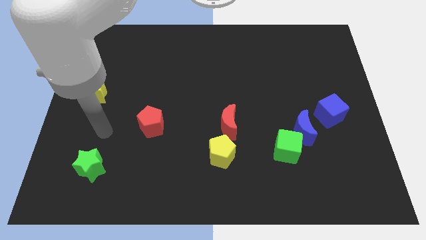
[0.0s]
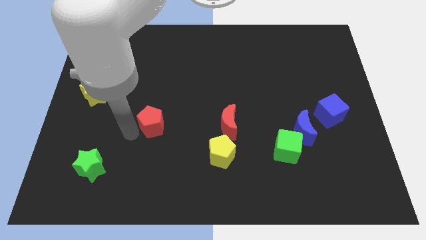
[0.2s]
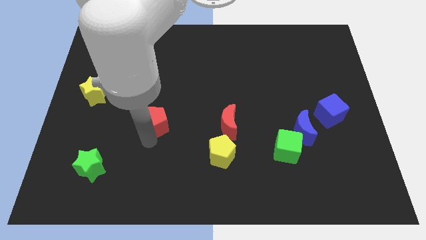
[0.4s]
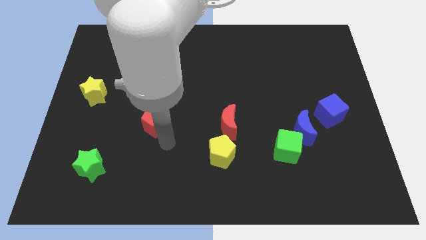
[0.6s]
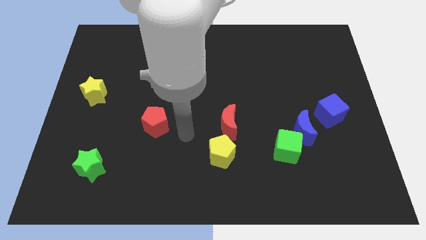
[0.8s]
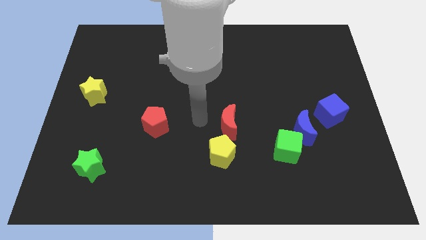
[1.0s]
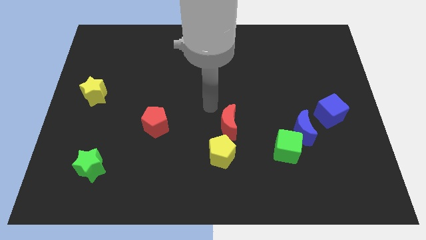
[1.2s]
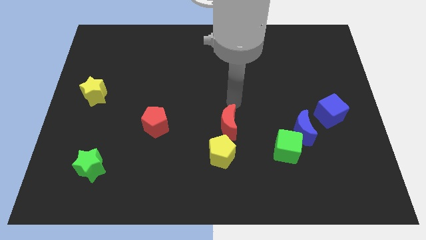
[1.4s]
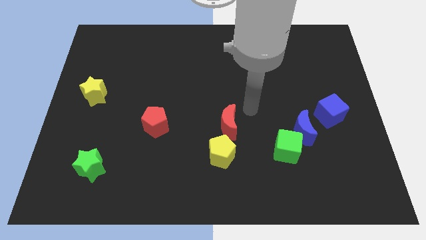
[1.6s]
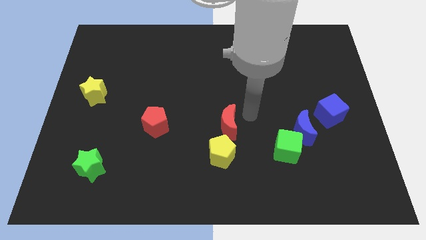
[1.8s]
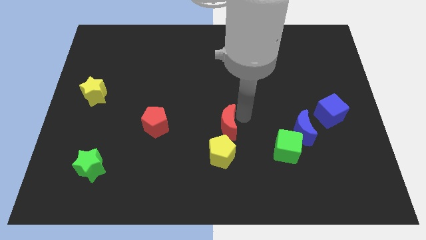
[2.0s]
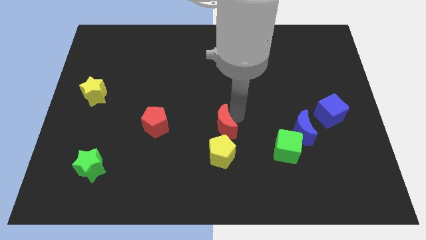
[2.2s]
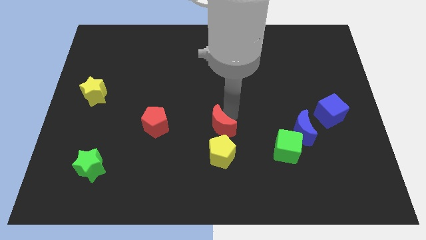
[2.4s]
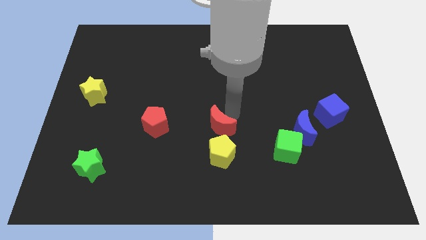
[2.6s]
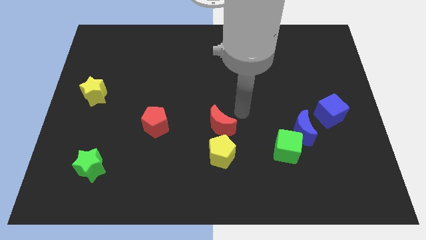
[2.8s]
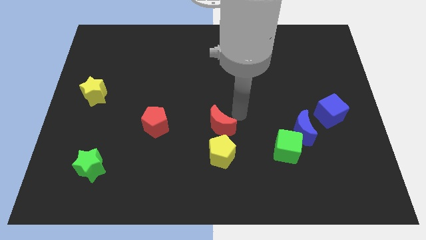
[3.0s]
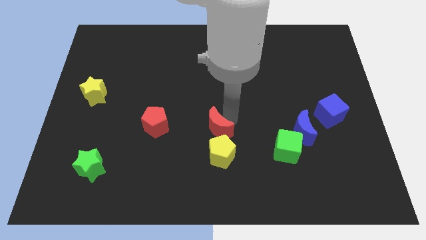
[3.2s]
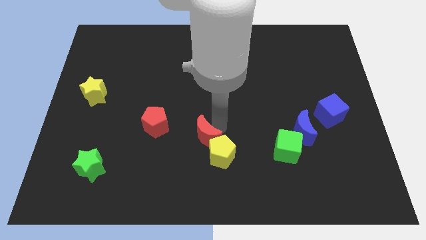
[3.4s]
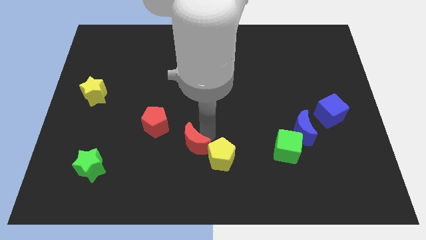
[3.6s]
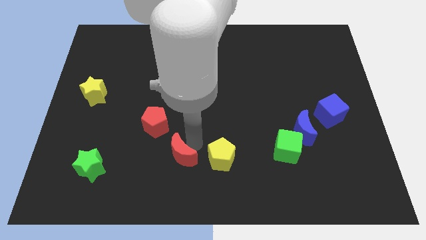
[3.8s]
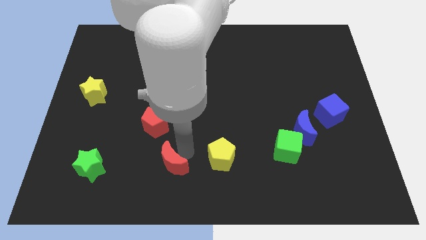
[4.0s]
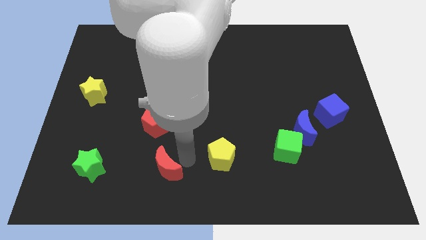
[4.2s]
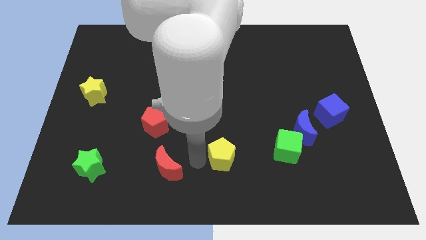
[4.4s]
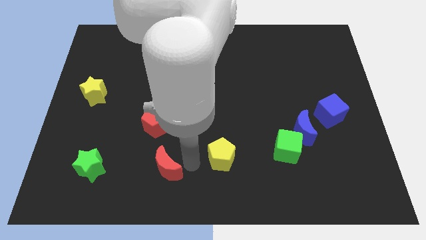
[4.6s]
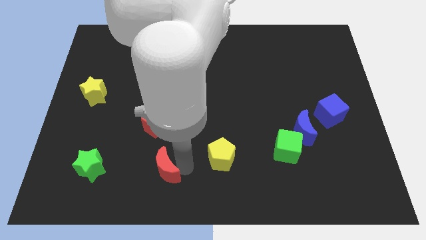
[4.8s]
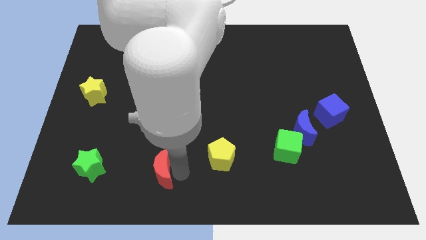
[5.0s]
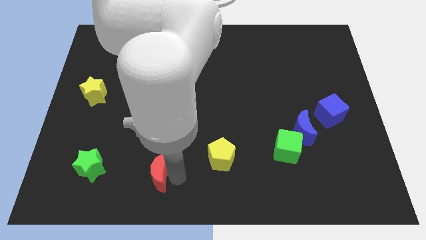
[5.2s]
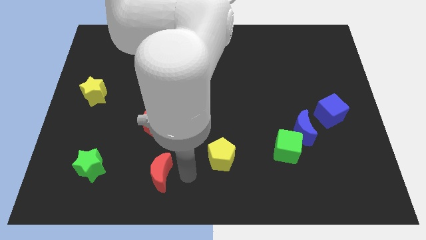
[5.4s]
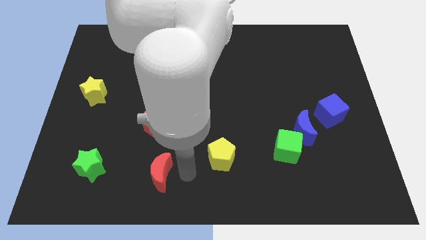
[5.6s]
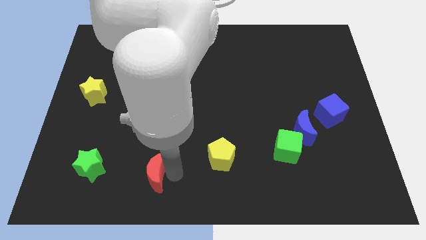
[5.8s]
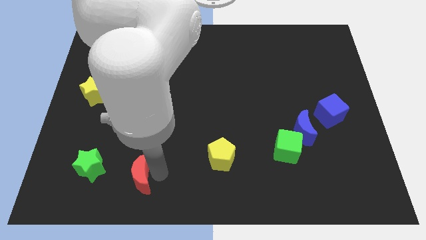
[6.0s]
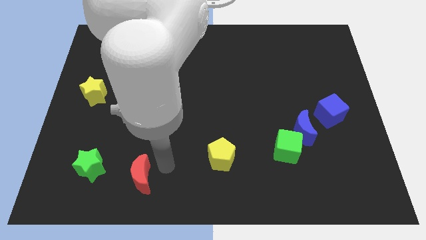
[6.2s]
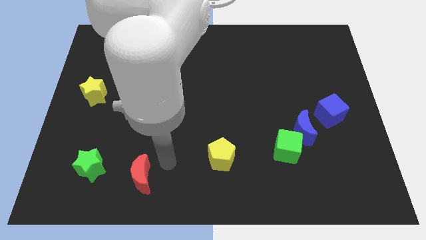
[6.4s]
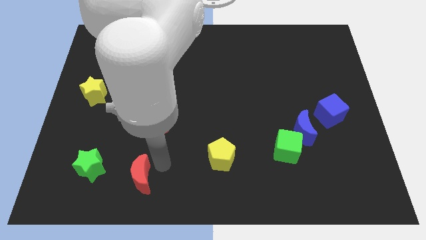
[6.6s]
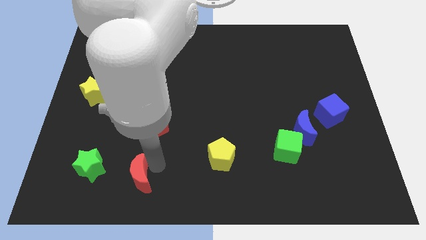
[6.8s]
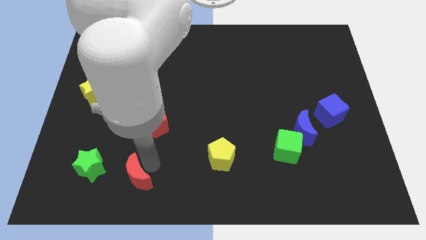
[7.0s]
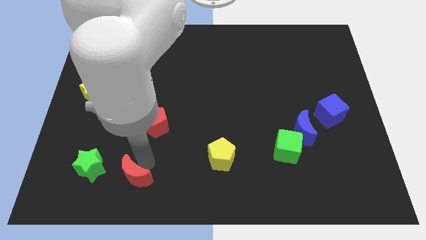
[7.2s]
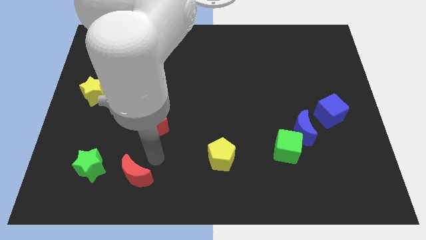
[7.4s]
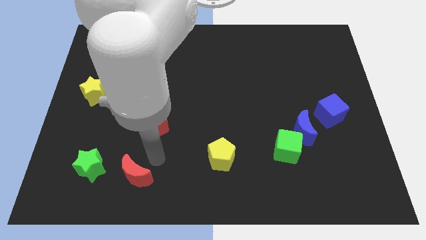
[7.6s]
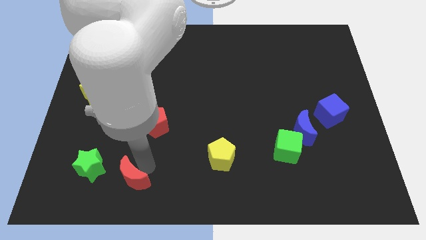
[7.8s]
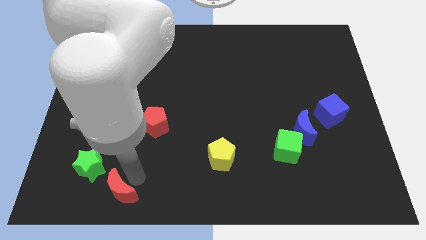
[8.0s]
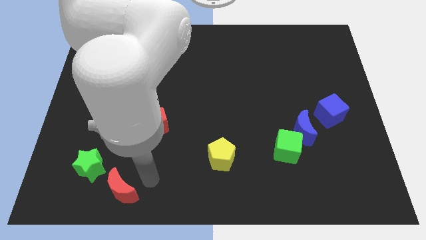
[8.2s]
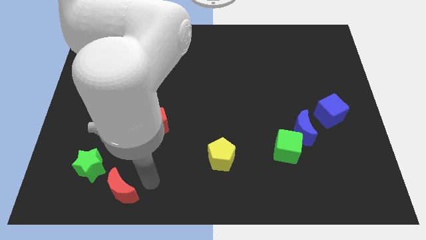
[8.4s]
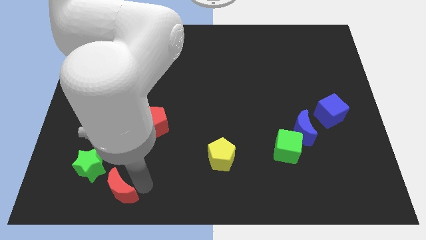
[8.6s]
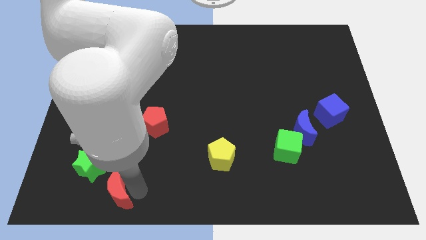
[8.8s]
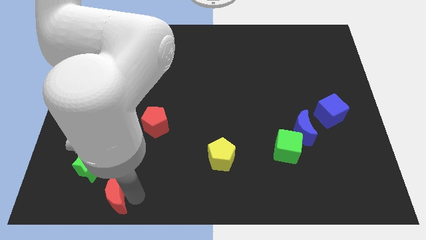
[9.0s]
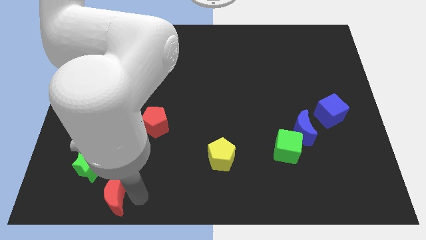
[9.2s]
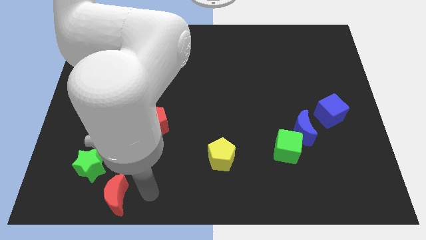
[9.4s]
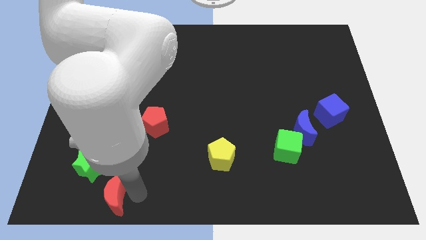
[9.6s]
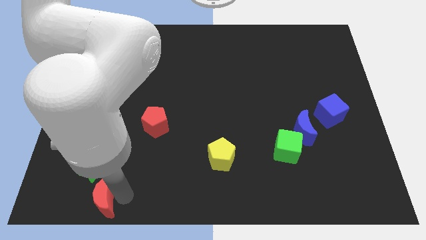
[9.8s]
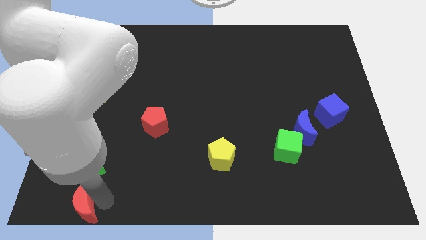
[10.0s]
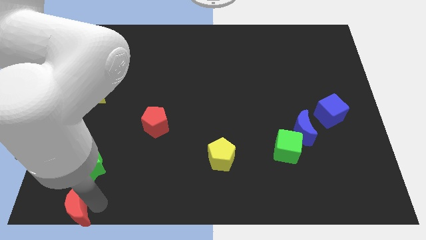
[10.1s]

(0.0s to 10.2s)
push the red moon to the lower left corner

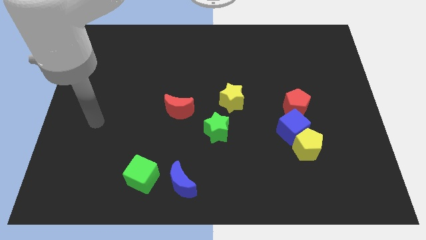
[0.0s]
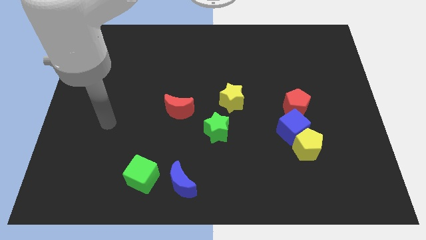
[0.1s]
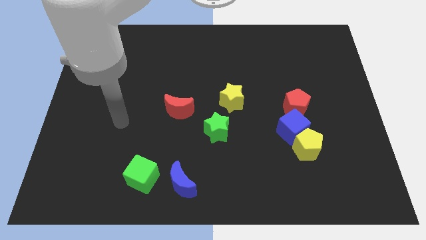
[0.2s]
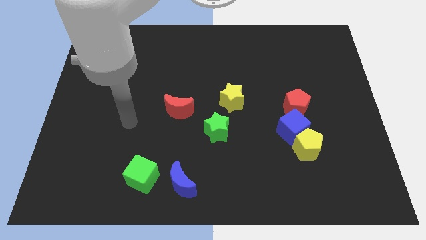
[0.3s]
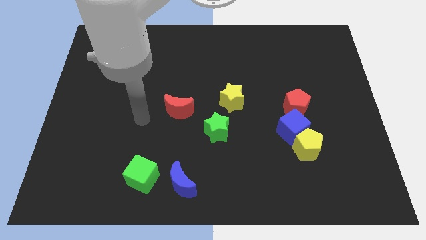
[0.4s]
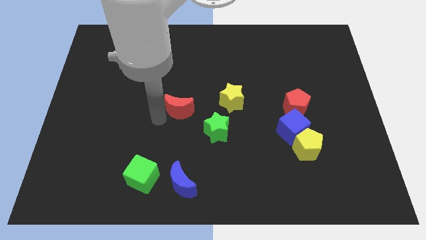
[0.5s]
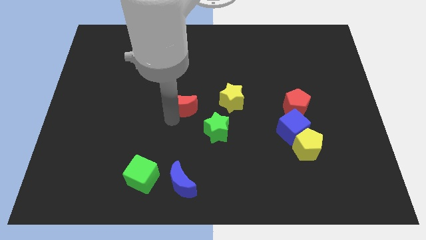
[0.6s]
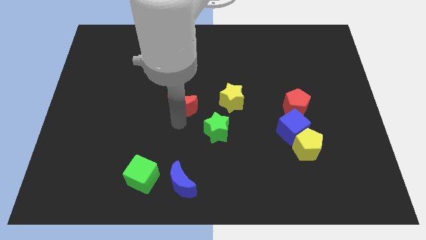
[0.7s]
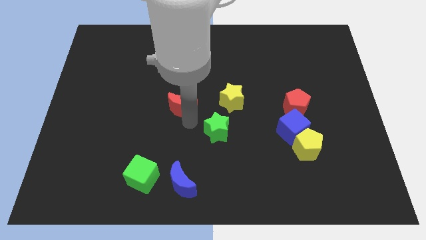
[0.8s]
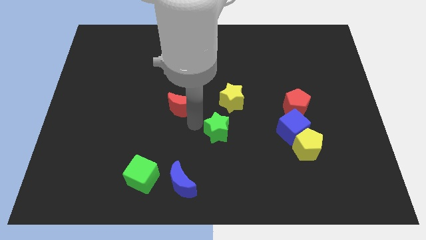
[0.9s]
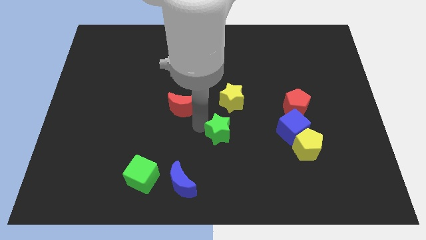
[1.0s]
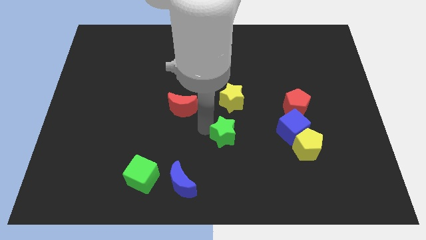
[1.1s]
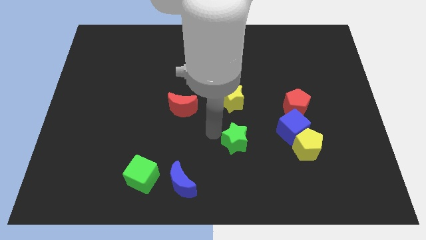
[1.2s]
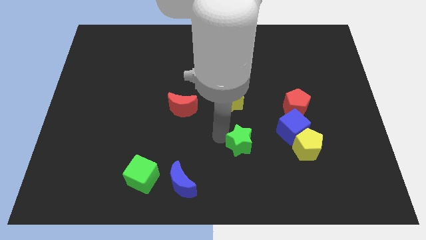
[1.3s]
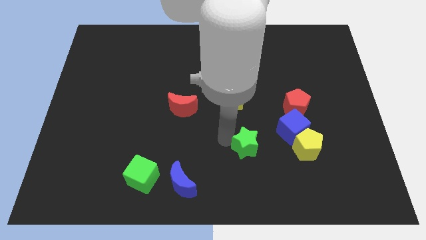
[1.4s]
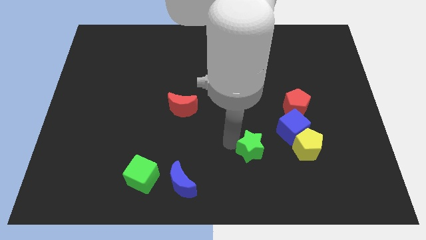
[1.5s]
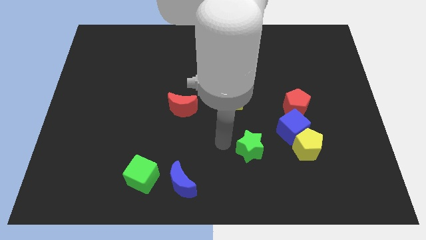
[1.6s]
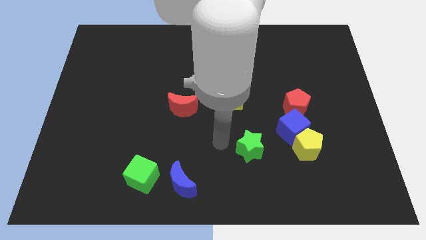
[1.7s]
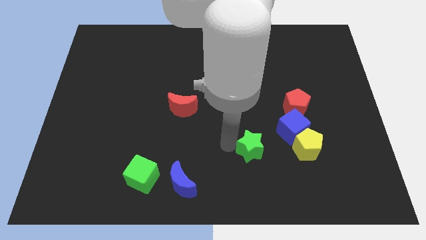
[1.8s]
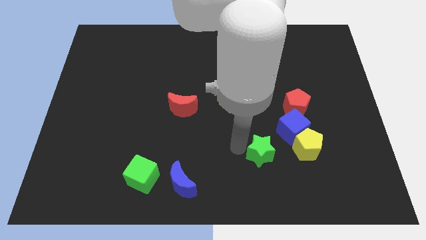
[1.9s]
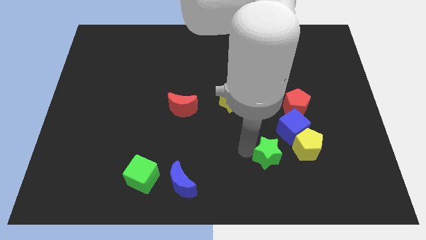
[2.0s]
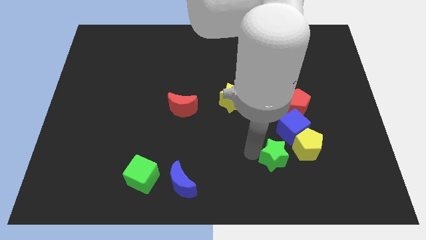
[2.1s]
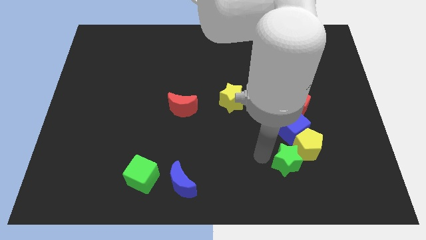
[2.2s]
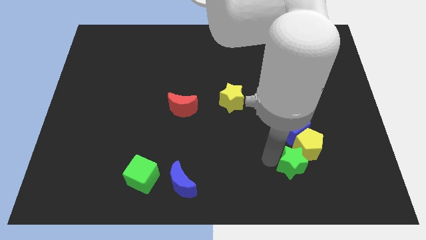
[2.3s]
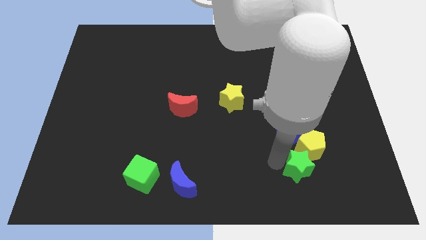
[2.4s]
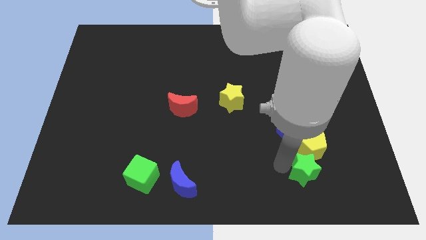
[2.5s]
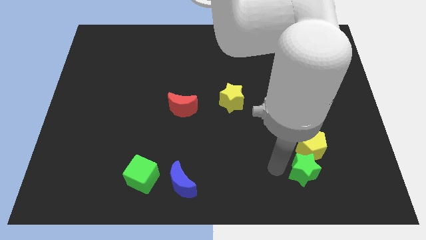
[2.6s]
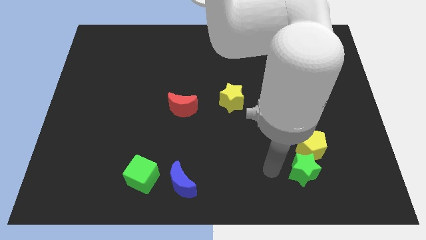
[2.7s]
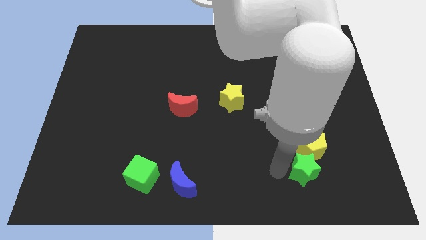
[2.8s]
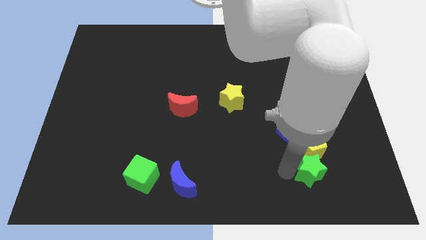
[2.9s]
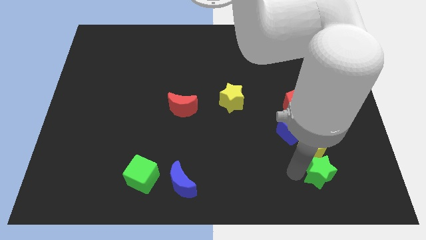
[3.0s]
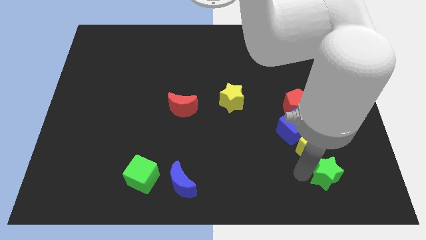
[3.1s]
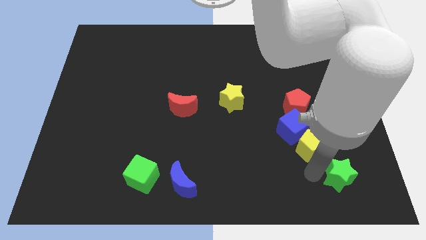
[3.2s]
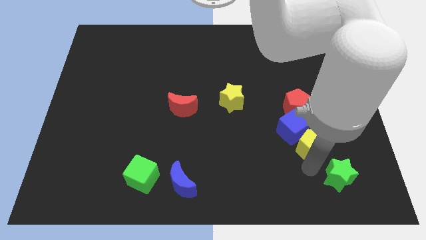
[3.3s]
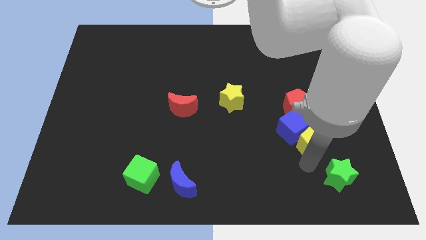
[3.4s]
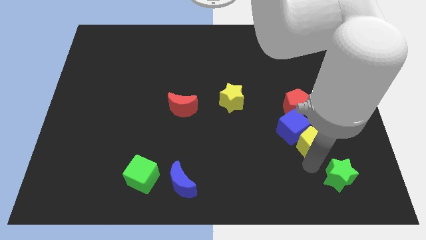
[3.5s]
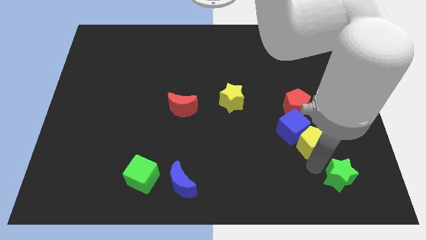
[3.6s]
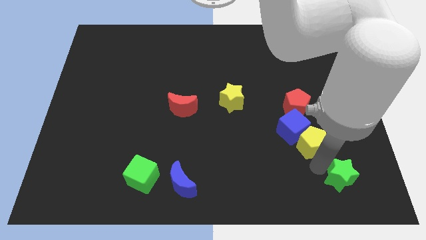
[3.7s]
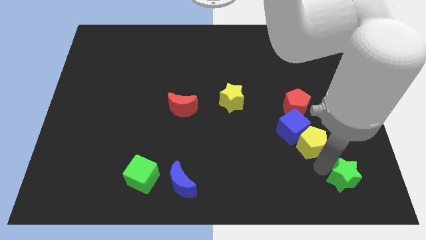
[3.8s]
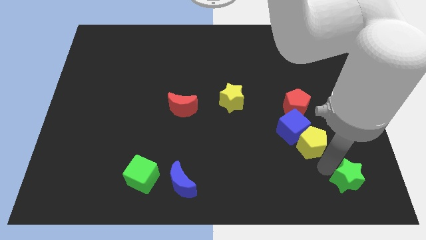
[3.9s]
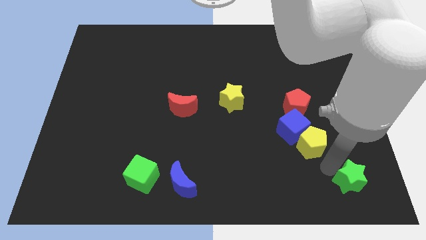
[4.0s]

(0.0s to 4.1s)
move the green star to the lower right corner
